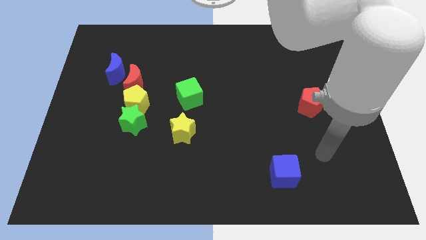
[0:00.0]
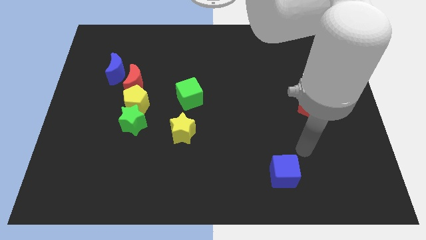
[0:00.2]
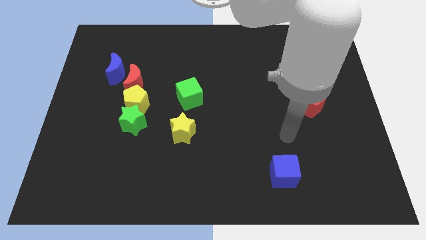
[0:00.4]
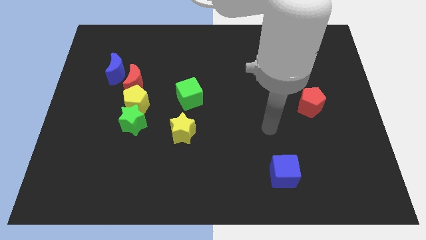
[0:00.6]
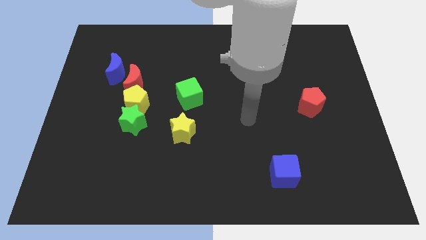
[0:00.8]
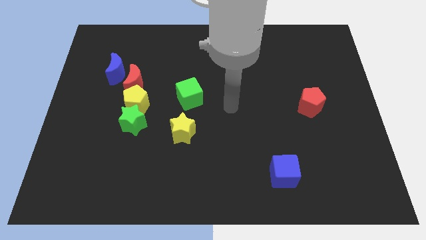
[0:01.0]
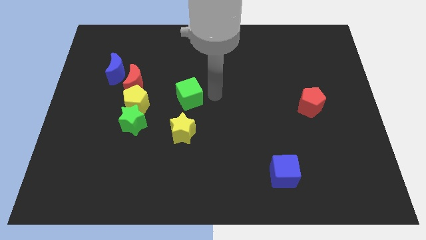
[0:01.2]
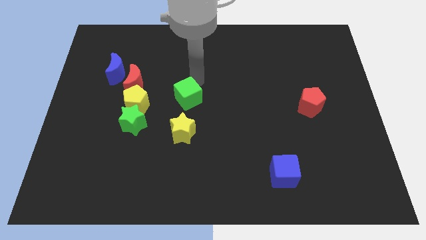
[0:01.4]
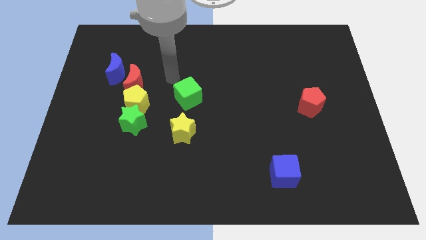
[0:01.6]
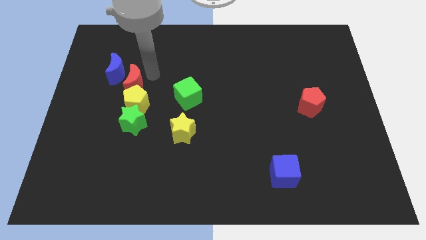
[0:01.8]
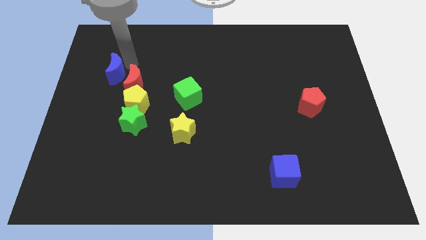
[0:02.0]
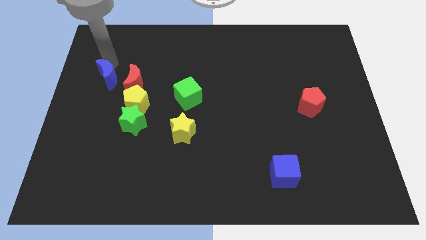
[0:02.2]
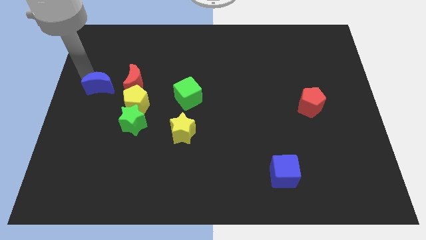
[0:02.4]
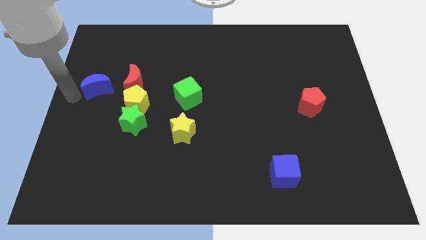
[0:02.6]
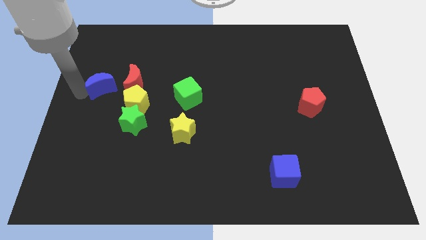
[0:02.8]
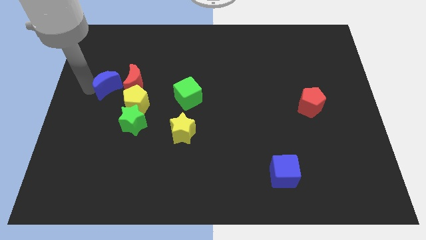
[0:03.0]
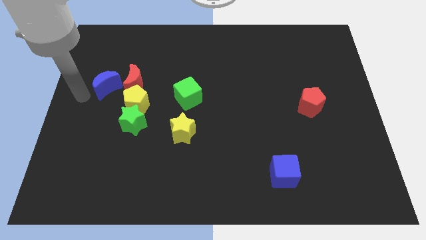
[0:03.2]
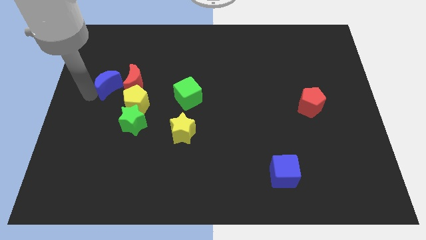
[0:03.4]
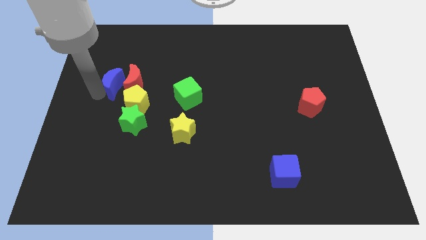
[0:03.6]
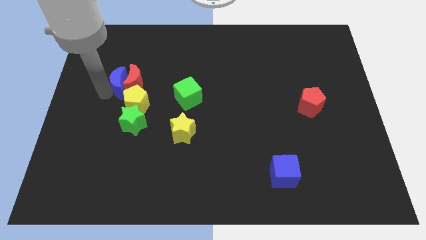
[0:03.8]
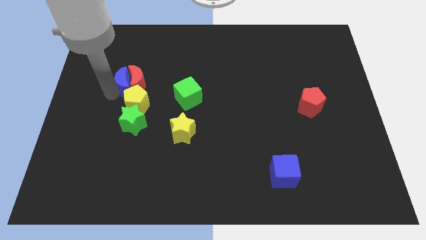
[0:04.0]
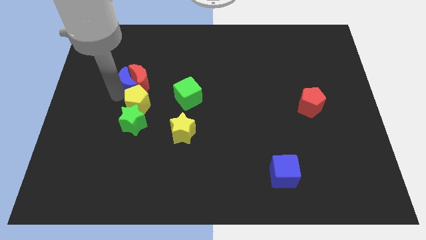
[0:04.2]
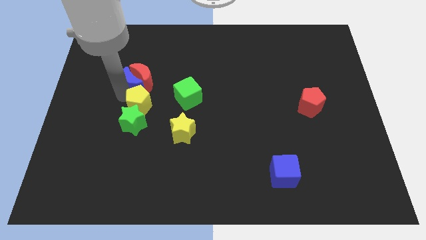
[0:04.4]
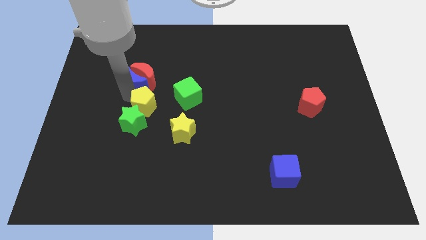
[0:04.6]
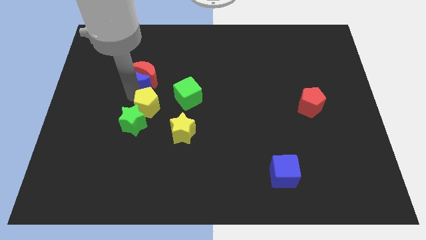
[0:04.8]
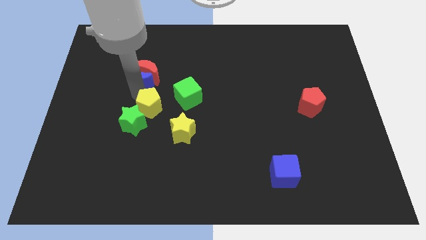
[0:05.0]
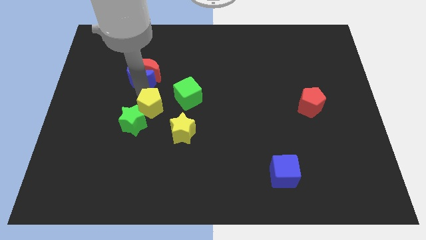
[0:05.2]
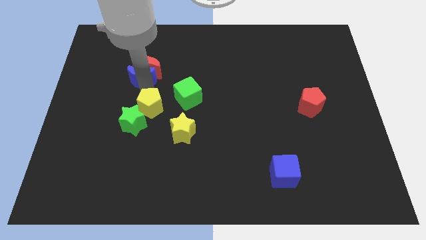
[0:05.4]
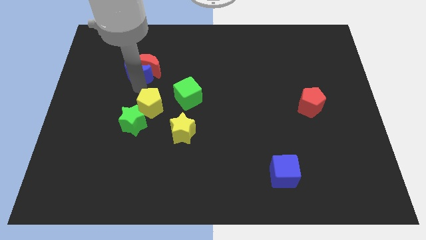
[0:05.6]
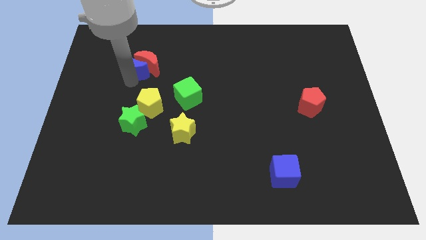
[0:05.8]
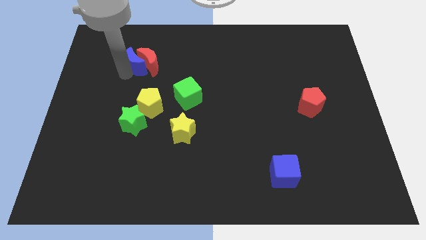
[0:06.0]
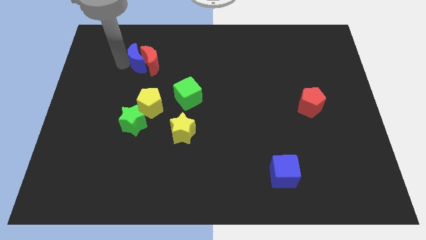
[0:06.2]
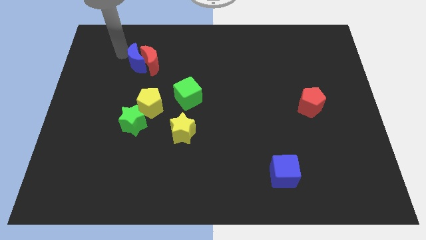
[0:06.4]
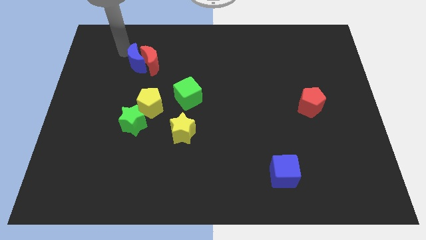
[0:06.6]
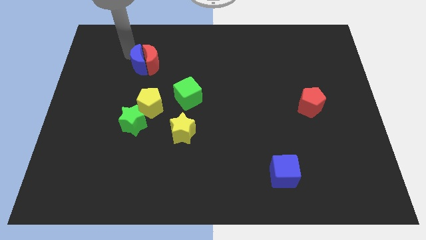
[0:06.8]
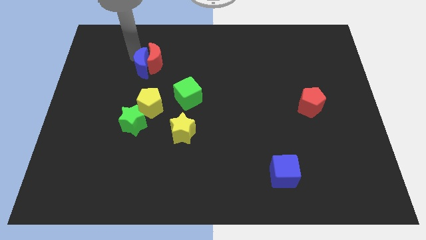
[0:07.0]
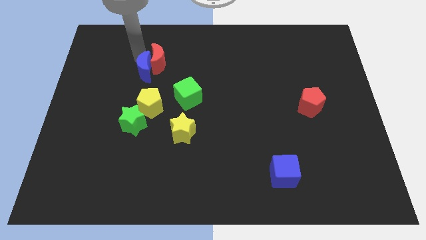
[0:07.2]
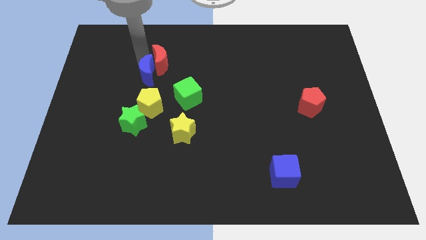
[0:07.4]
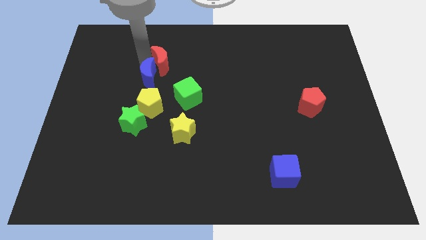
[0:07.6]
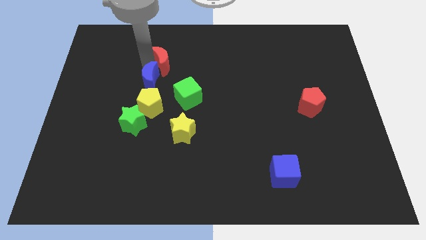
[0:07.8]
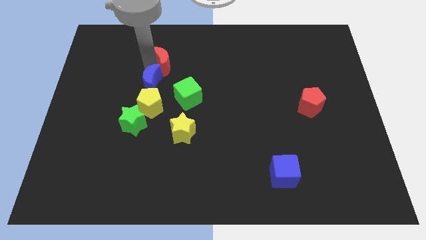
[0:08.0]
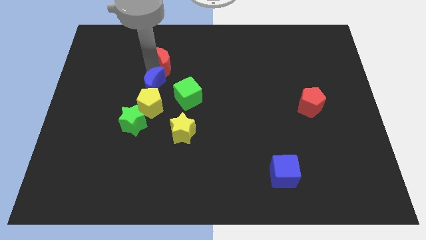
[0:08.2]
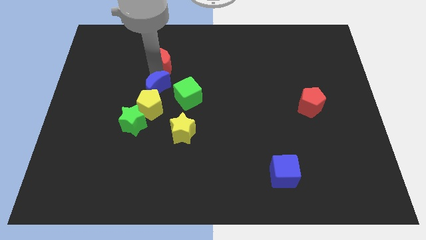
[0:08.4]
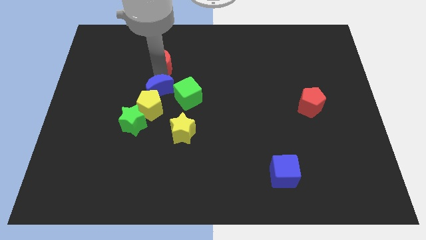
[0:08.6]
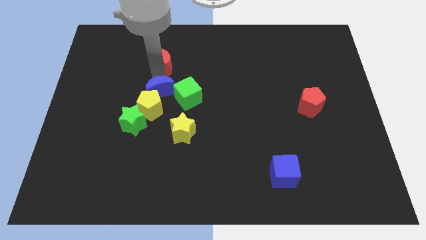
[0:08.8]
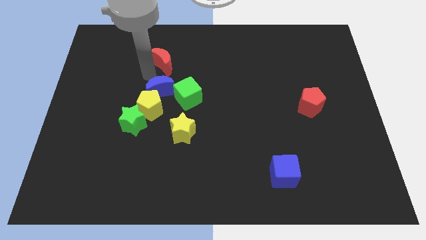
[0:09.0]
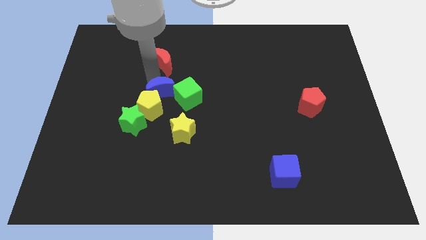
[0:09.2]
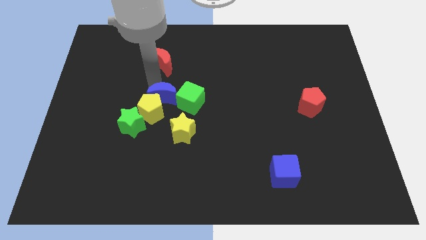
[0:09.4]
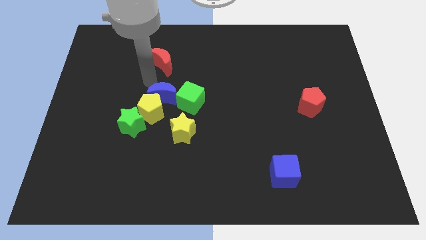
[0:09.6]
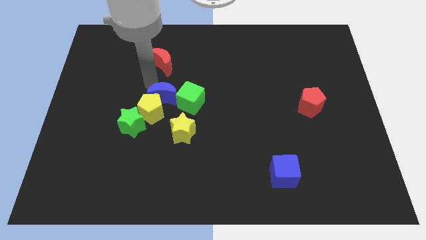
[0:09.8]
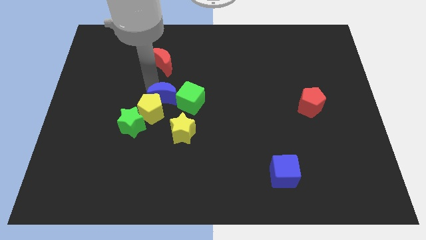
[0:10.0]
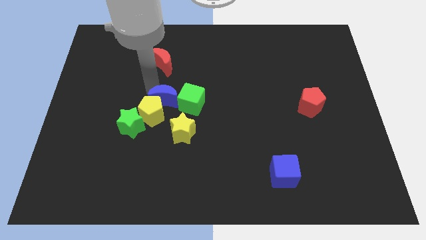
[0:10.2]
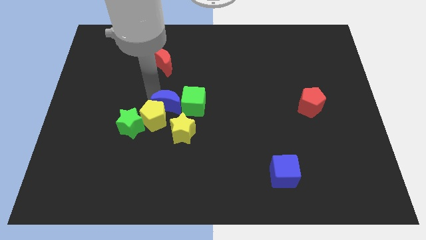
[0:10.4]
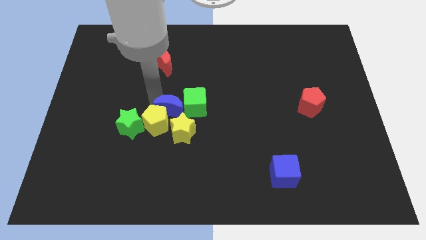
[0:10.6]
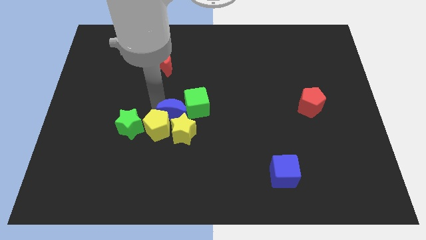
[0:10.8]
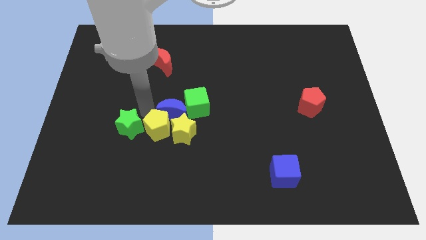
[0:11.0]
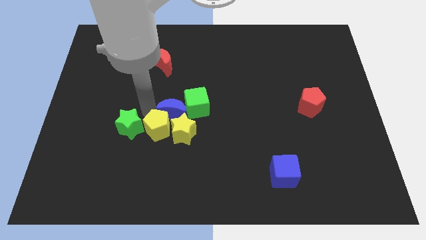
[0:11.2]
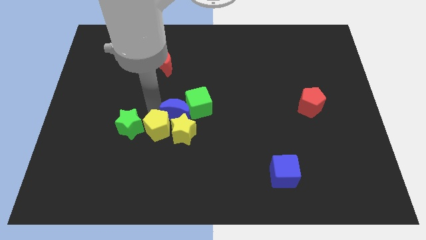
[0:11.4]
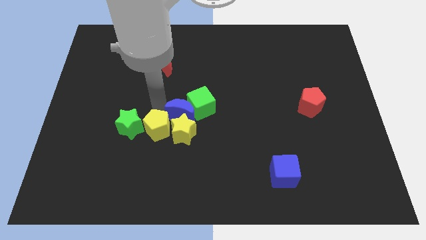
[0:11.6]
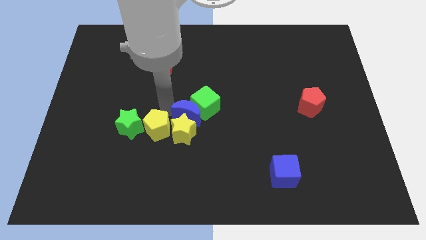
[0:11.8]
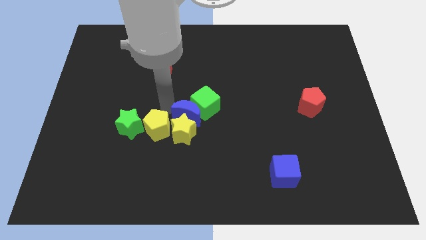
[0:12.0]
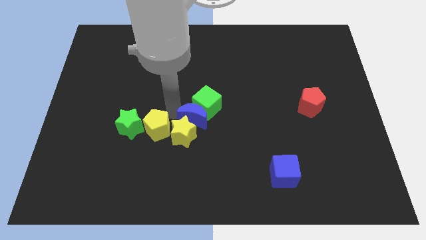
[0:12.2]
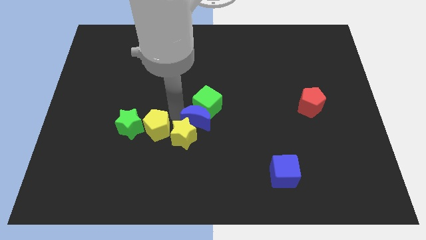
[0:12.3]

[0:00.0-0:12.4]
put the blue moon to the right side of the yellow star
